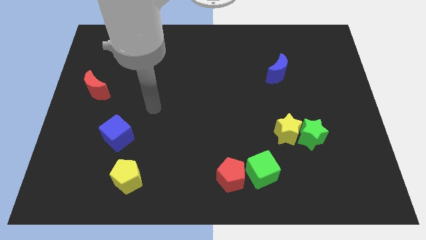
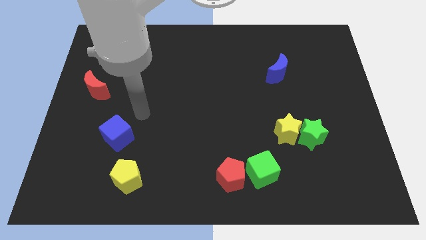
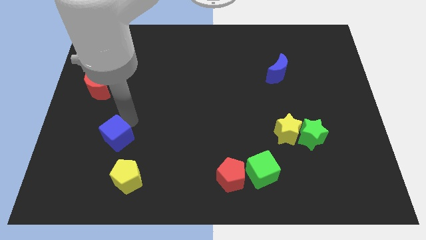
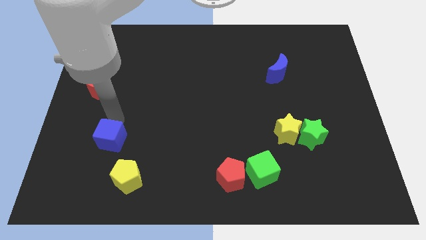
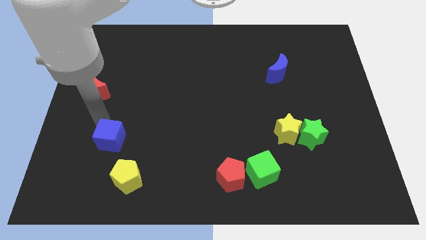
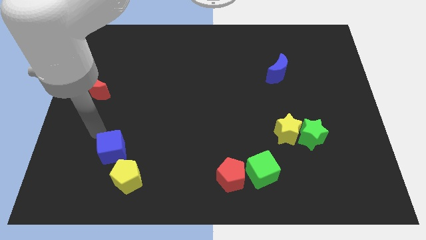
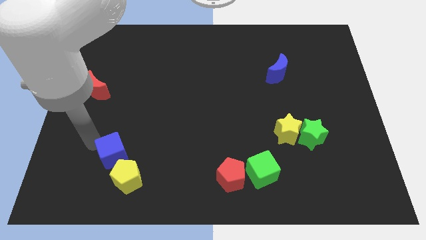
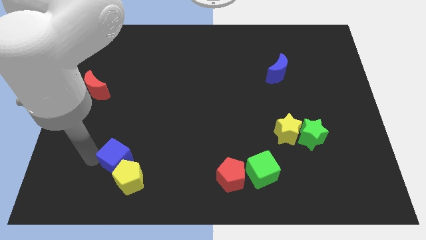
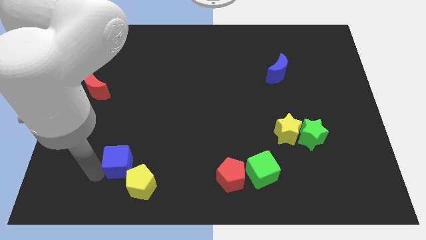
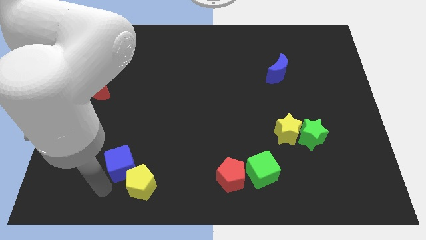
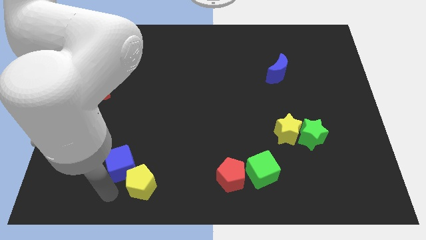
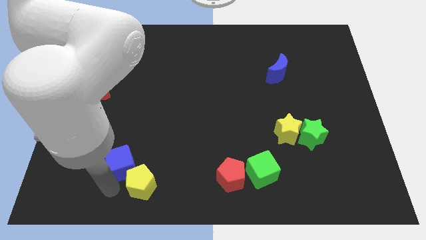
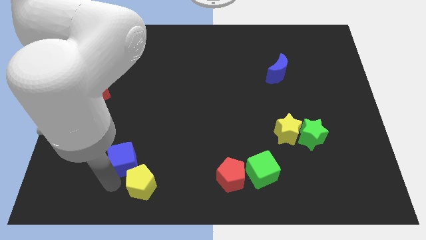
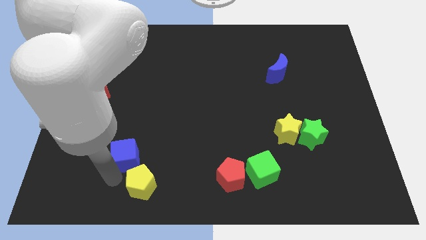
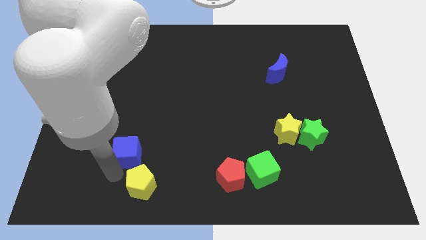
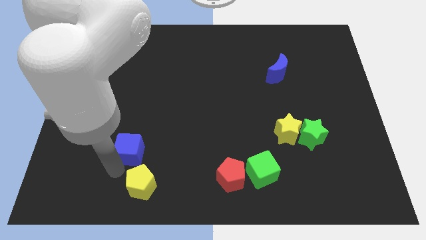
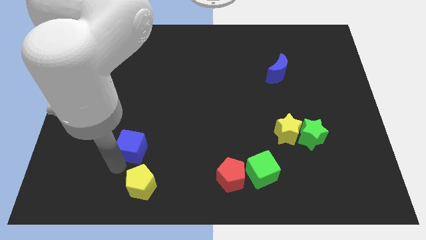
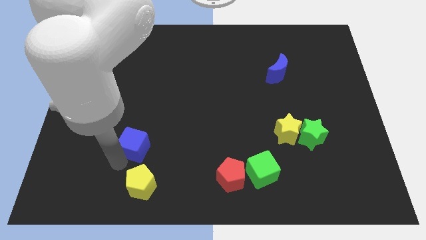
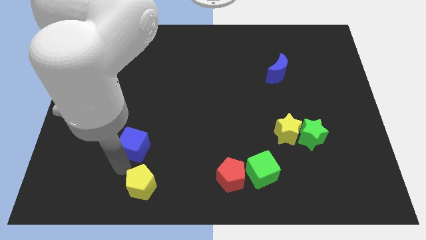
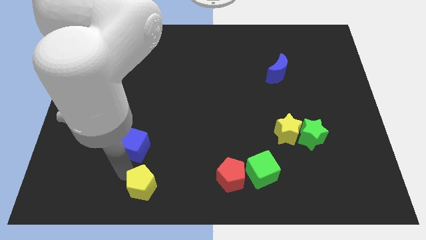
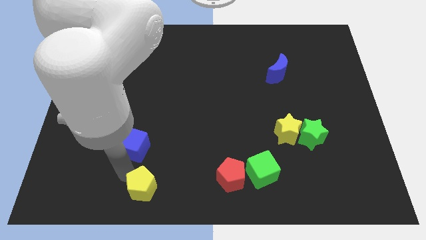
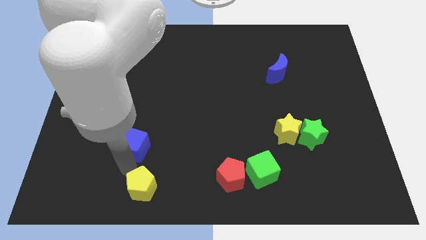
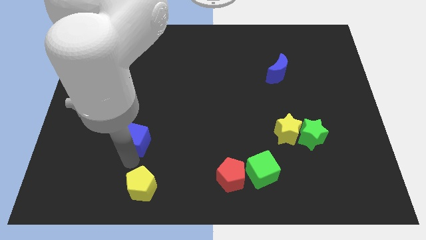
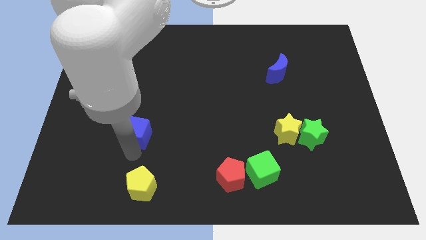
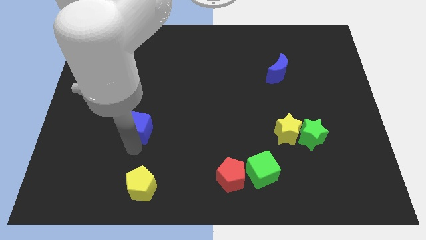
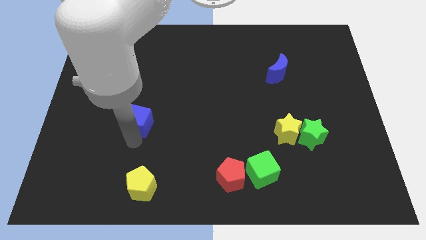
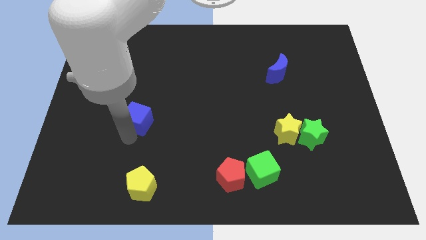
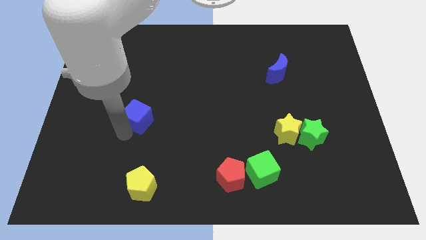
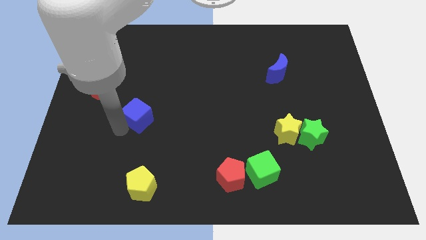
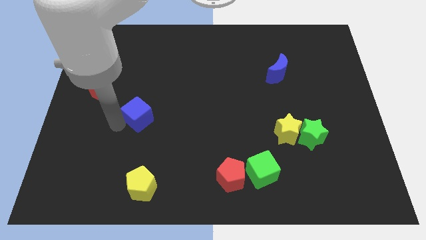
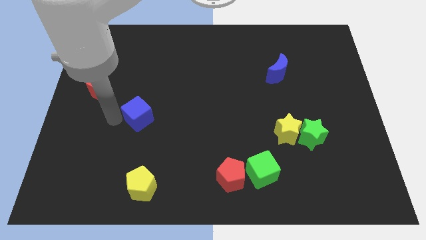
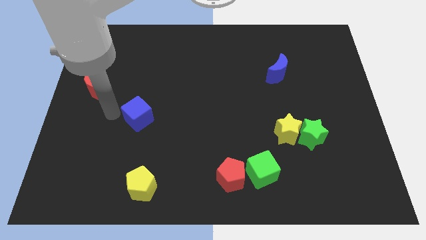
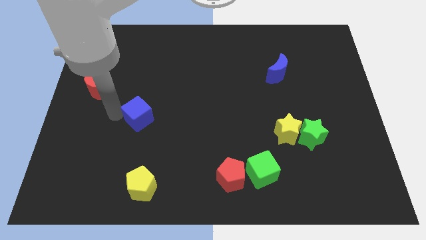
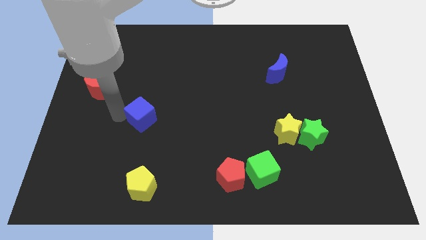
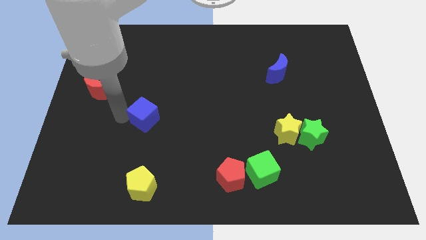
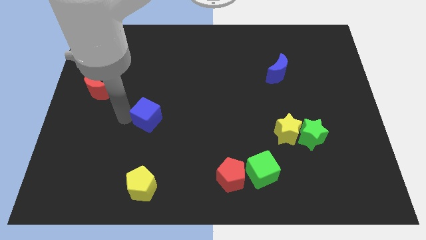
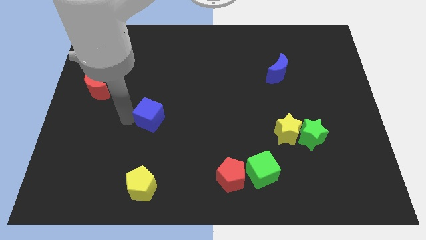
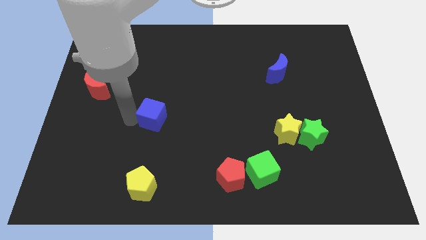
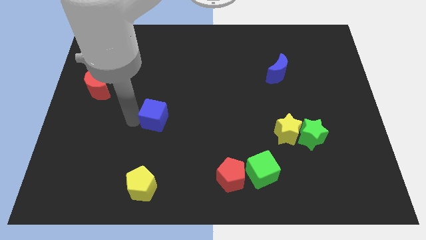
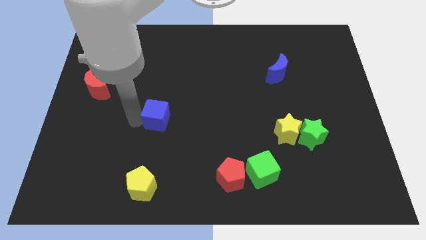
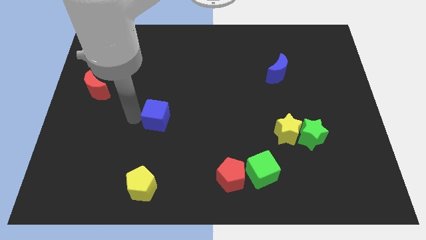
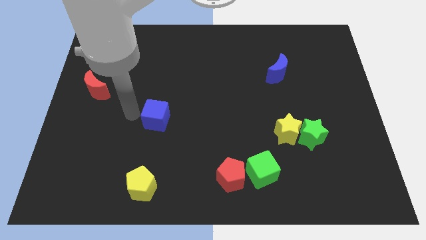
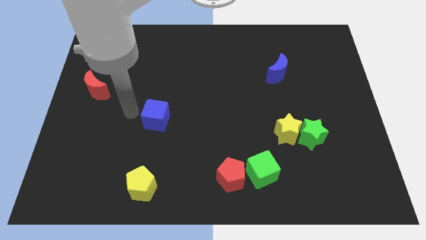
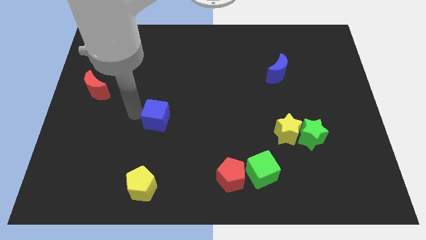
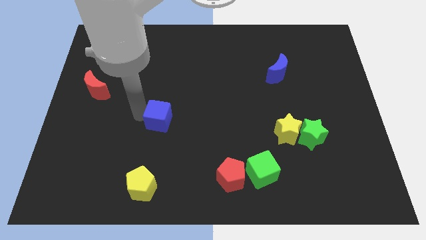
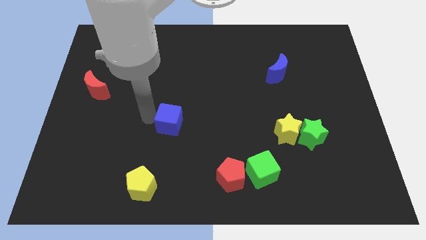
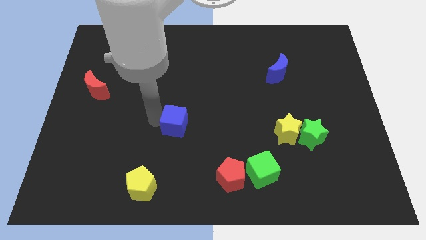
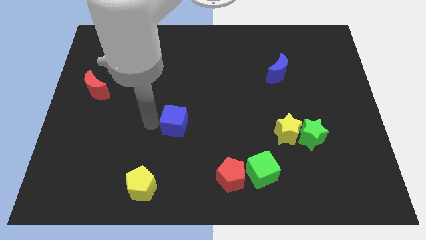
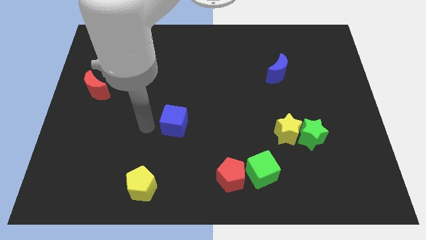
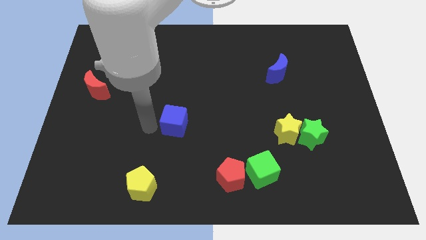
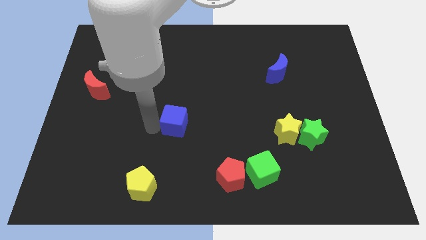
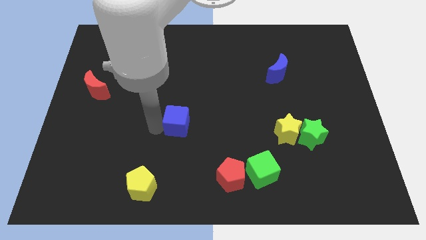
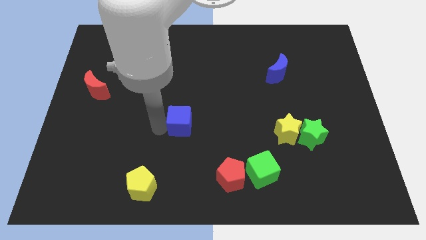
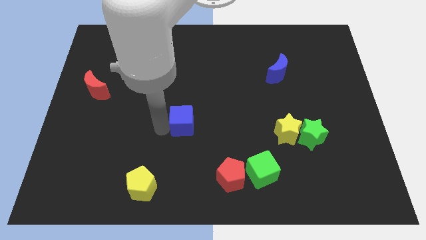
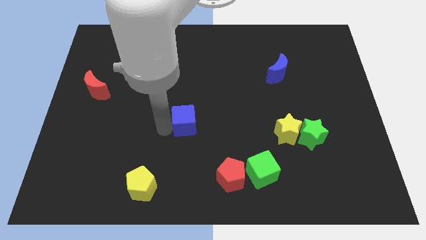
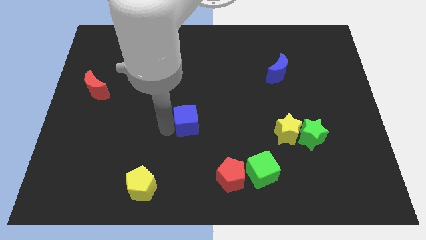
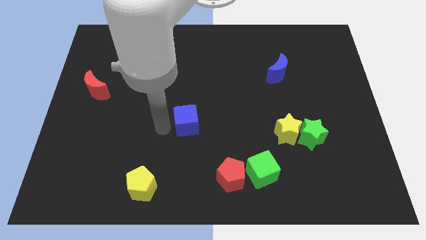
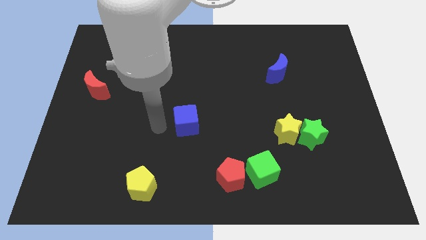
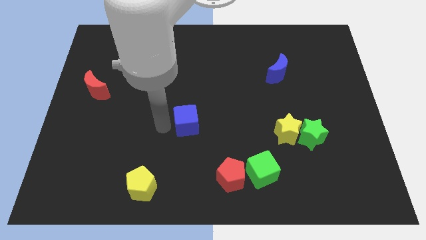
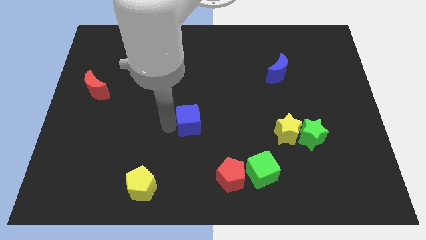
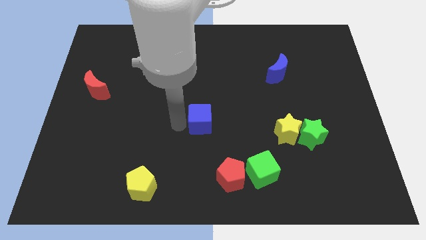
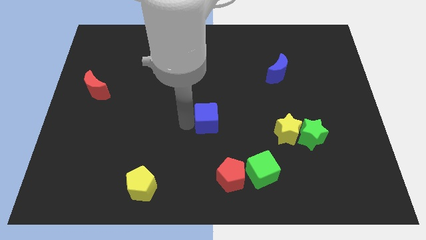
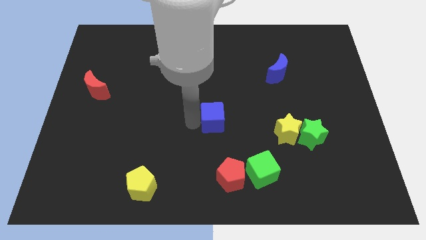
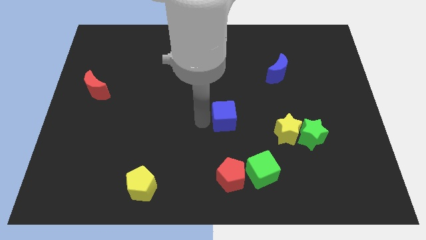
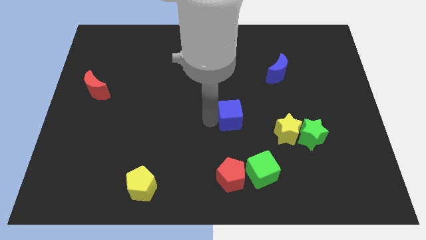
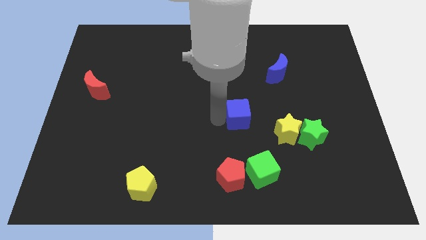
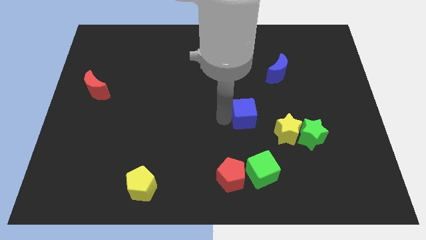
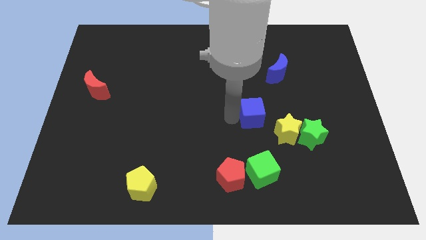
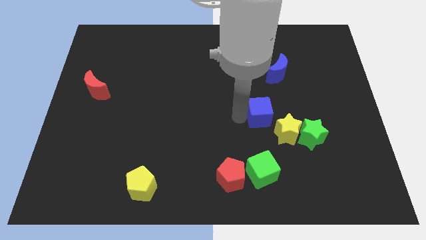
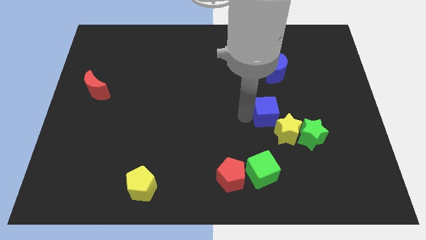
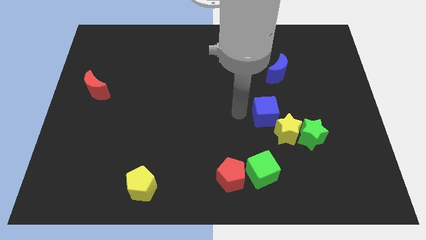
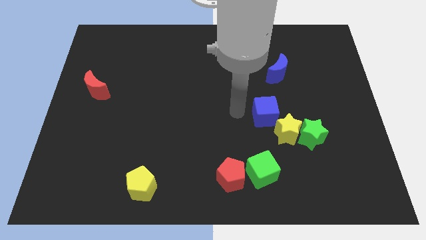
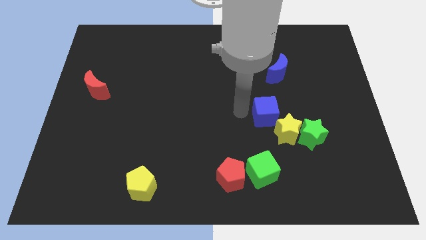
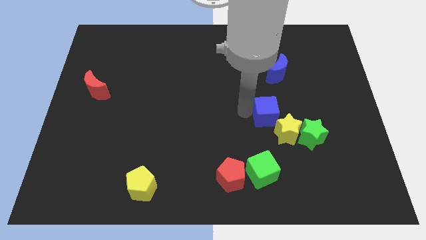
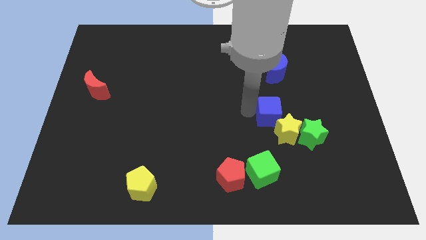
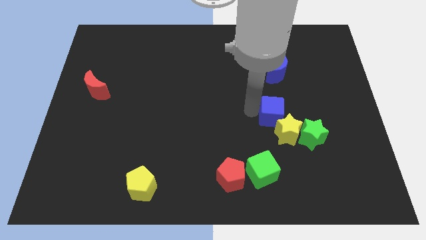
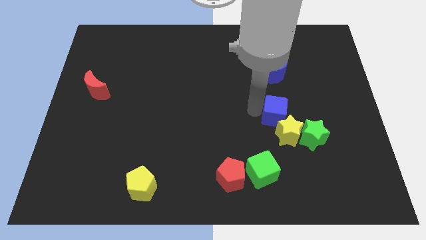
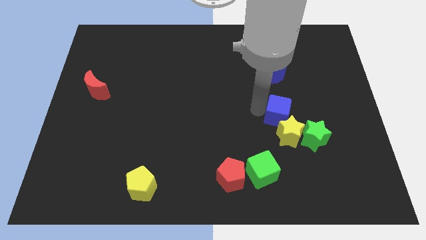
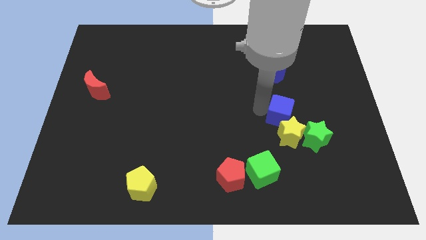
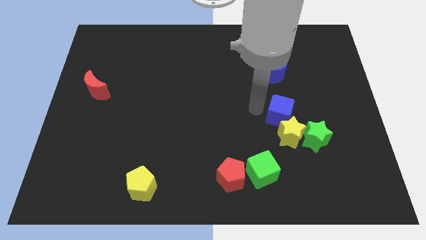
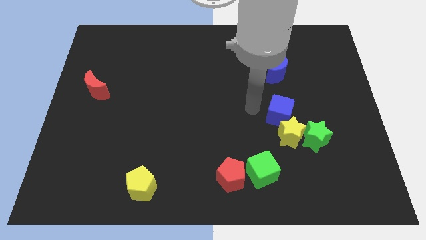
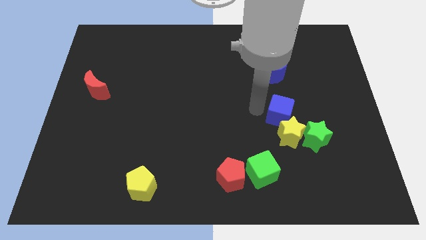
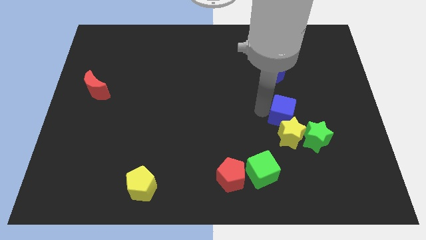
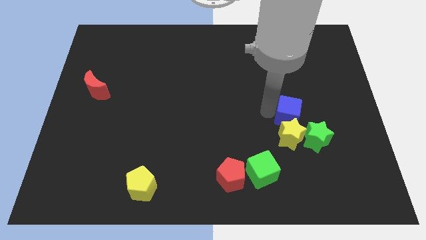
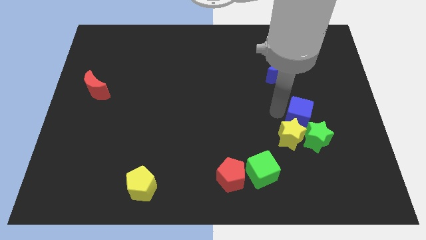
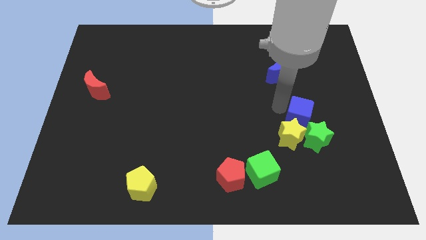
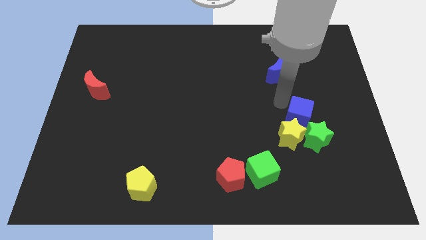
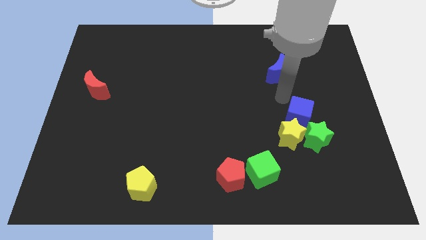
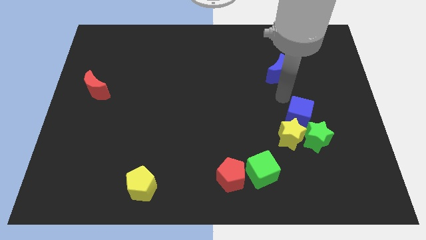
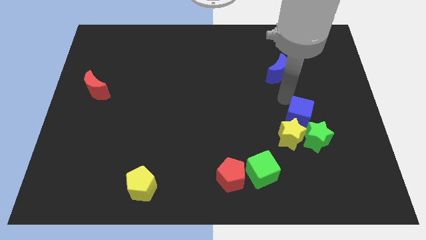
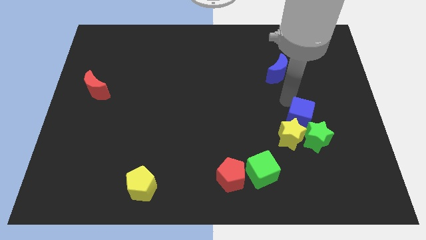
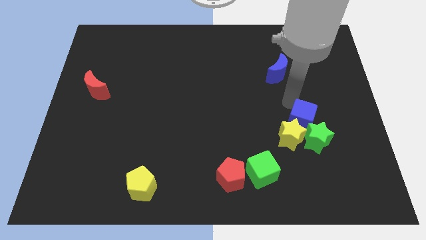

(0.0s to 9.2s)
move the blue cube towards the green star
